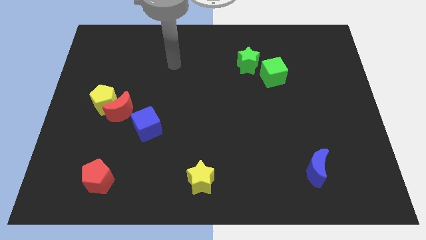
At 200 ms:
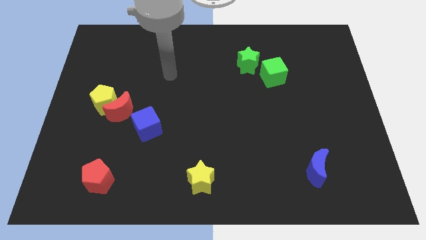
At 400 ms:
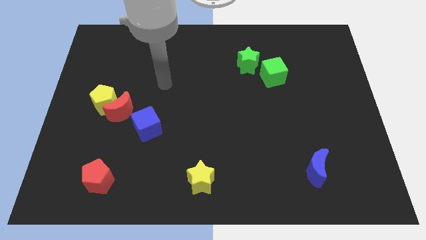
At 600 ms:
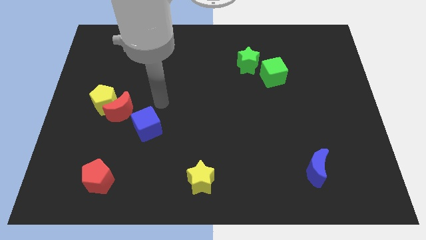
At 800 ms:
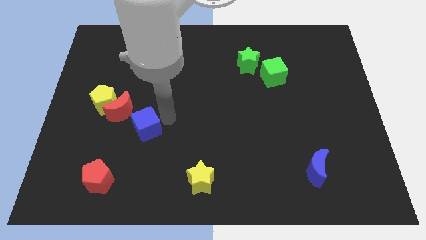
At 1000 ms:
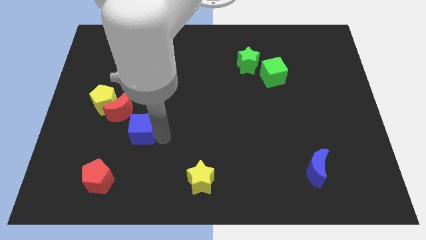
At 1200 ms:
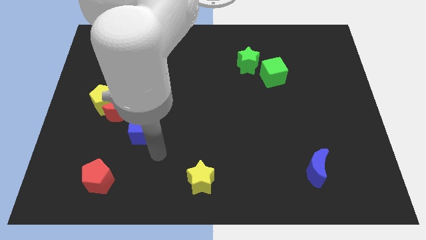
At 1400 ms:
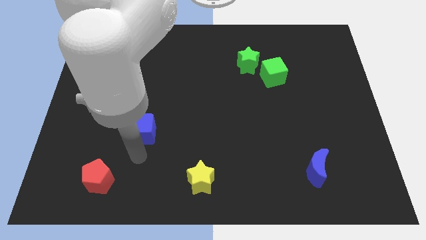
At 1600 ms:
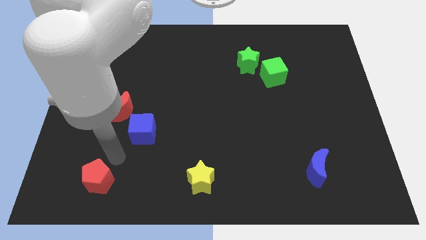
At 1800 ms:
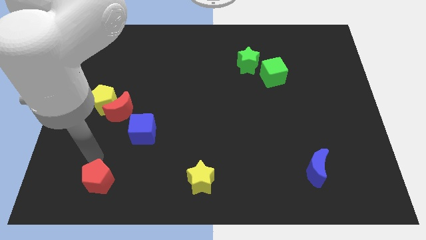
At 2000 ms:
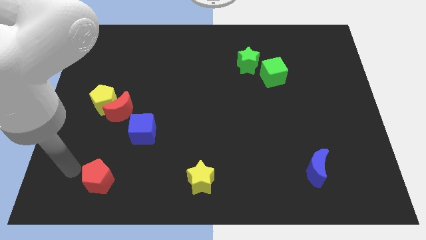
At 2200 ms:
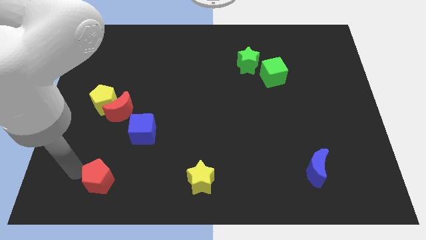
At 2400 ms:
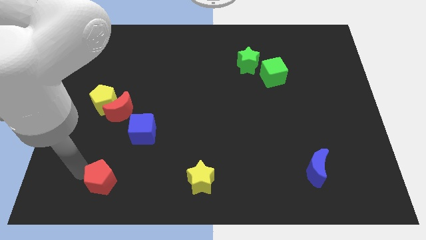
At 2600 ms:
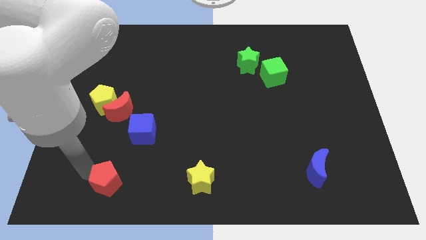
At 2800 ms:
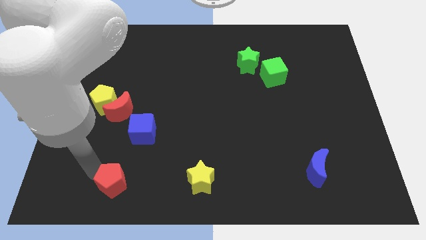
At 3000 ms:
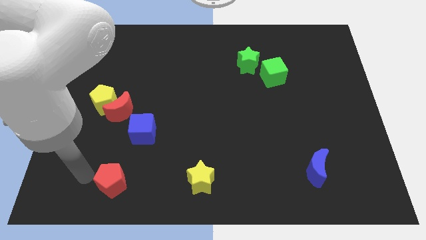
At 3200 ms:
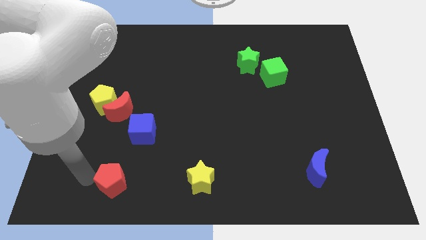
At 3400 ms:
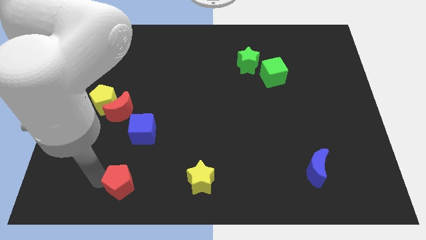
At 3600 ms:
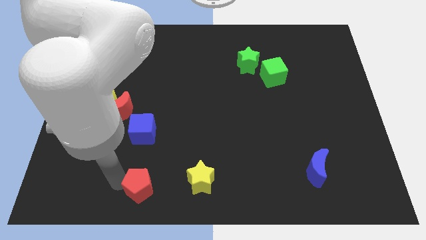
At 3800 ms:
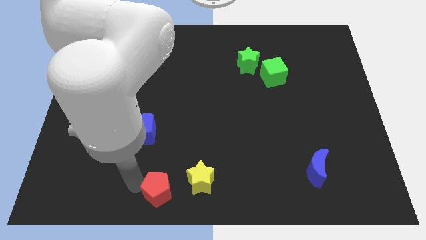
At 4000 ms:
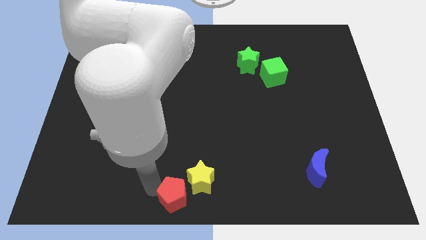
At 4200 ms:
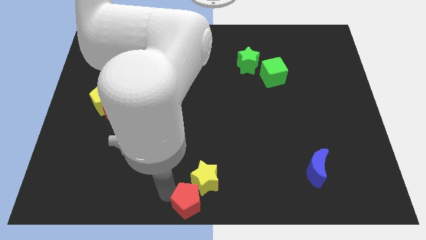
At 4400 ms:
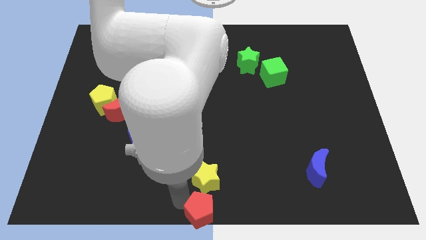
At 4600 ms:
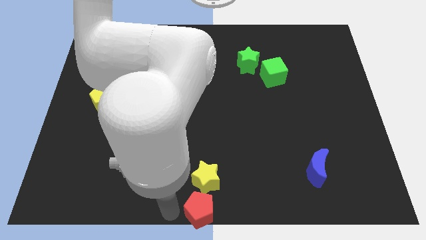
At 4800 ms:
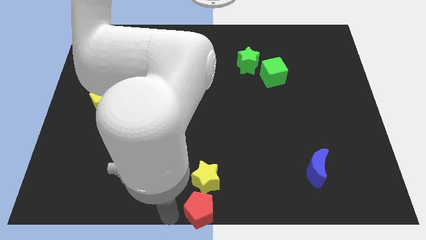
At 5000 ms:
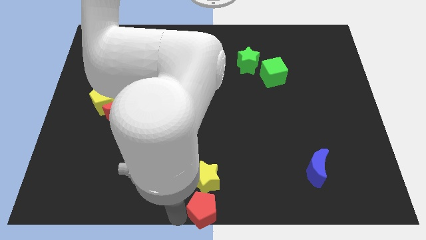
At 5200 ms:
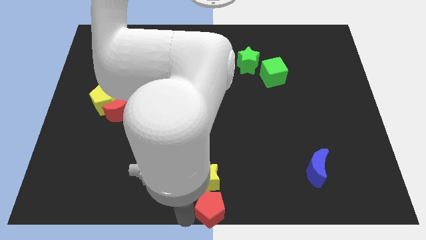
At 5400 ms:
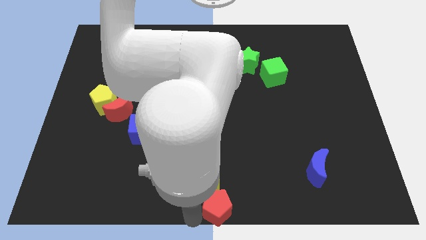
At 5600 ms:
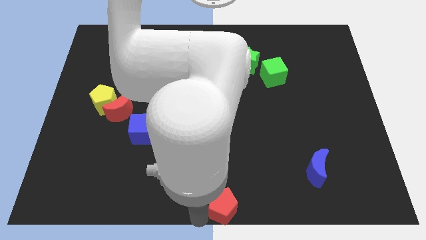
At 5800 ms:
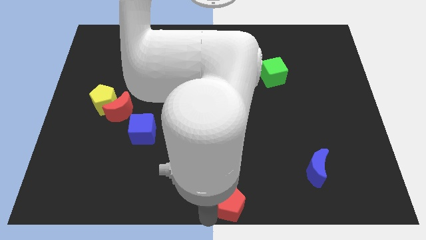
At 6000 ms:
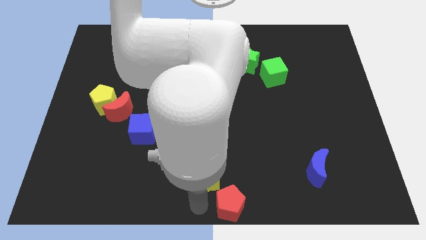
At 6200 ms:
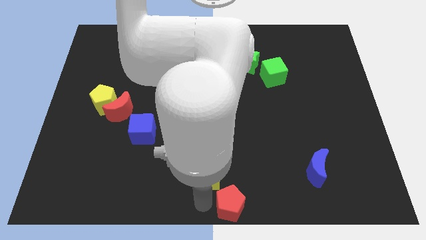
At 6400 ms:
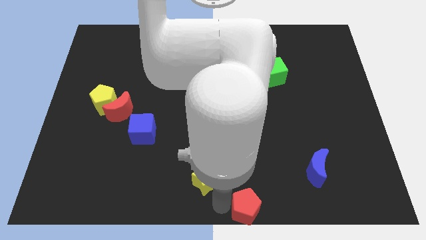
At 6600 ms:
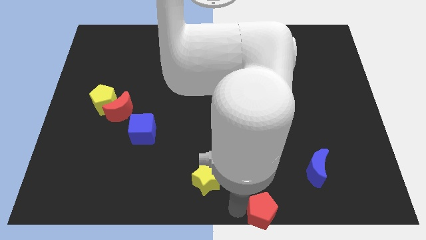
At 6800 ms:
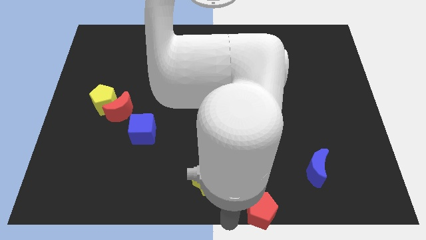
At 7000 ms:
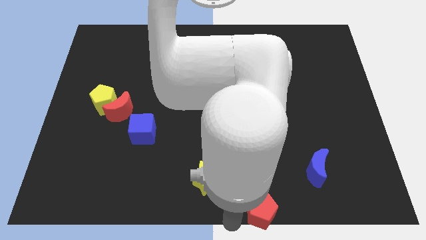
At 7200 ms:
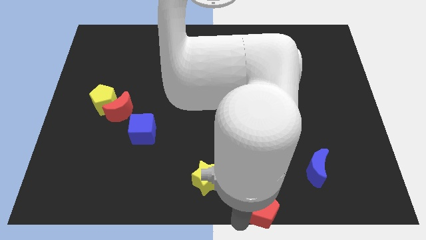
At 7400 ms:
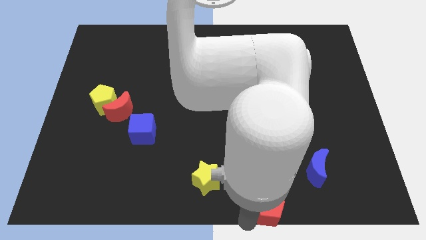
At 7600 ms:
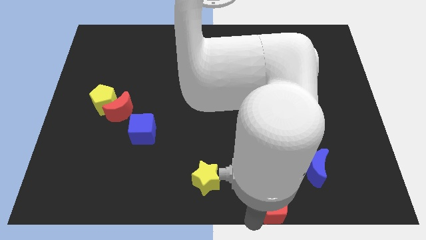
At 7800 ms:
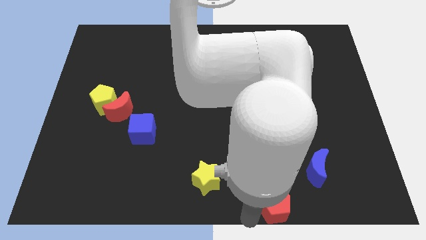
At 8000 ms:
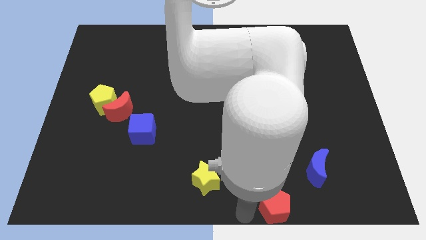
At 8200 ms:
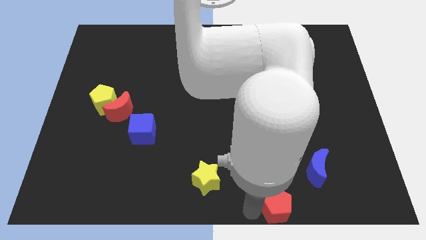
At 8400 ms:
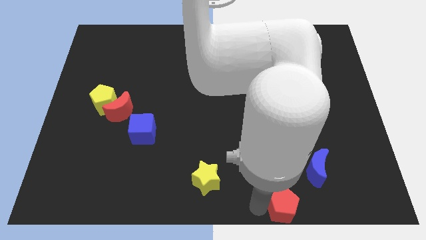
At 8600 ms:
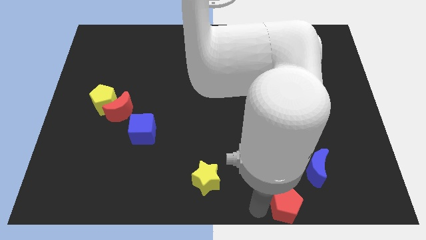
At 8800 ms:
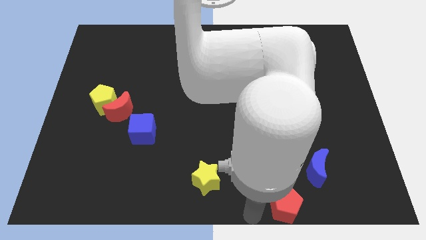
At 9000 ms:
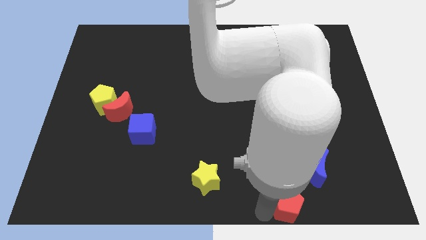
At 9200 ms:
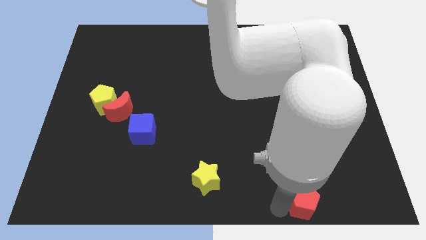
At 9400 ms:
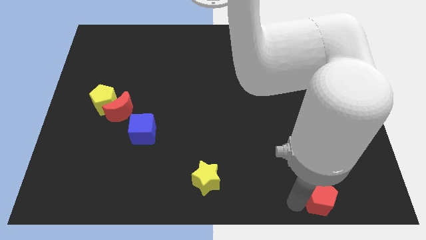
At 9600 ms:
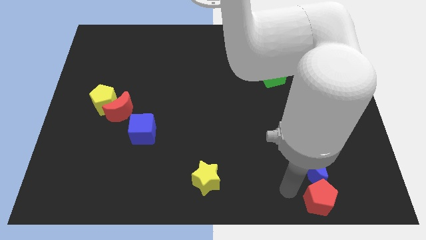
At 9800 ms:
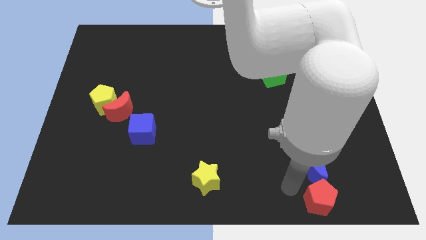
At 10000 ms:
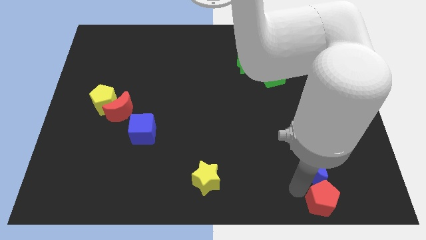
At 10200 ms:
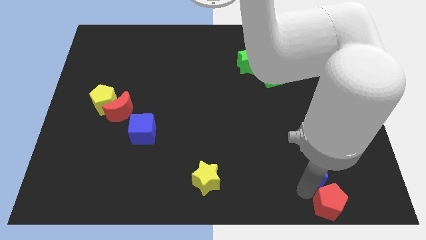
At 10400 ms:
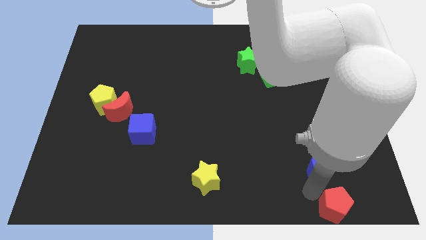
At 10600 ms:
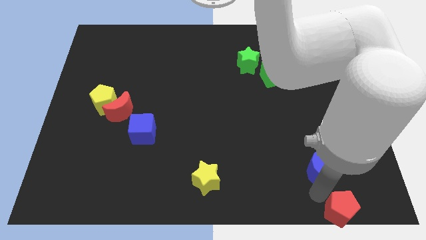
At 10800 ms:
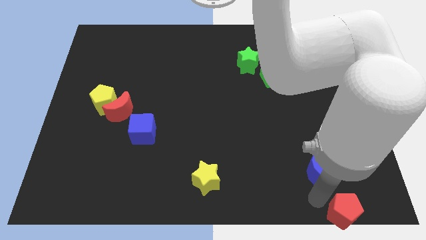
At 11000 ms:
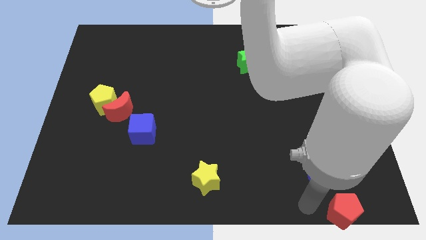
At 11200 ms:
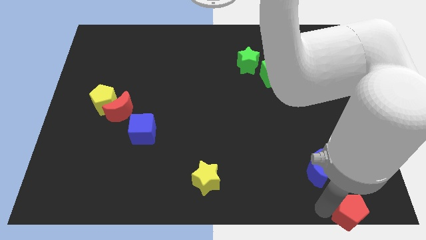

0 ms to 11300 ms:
slide the red pentagon to the bottom right

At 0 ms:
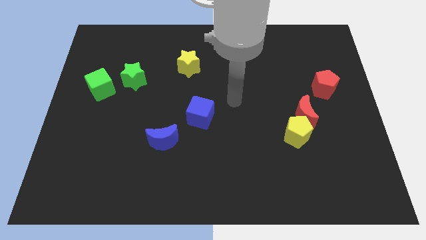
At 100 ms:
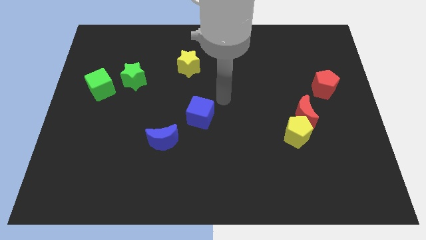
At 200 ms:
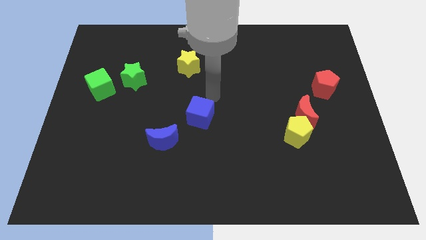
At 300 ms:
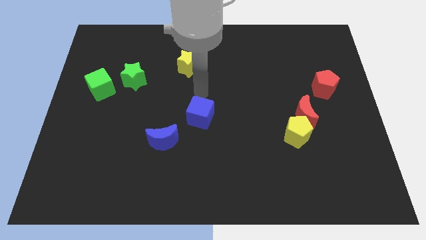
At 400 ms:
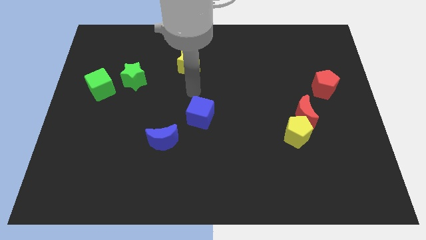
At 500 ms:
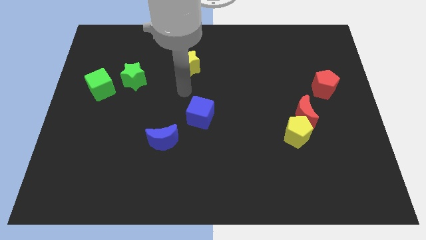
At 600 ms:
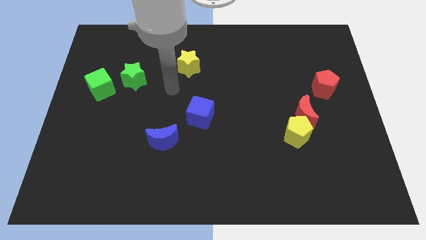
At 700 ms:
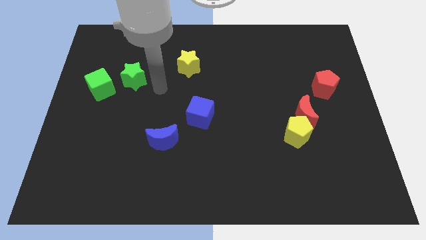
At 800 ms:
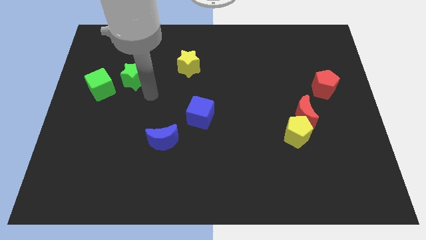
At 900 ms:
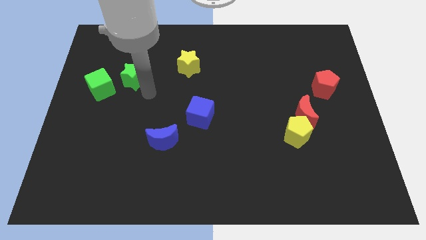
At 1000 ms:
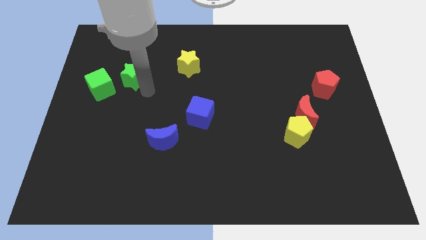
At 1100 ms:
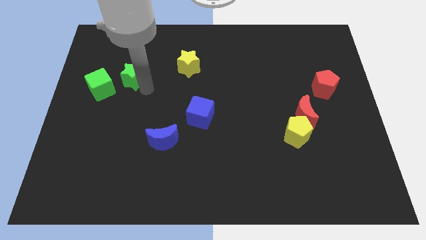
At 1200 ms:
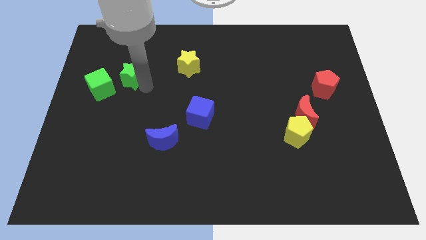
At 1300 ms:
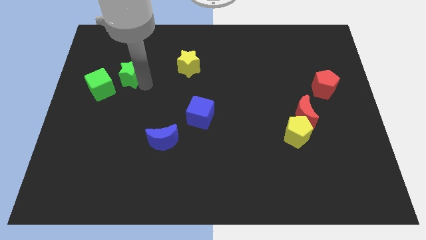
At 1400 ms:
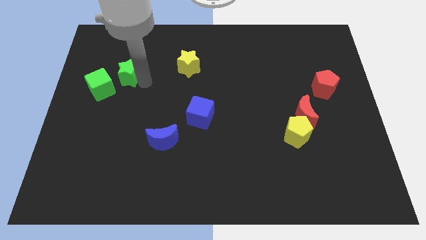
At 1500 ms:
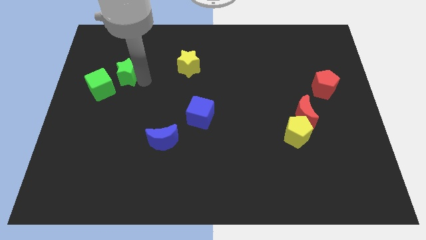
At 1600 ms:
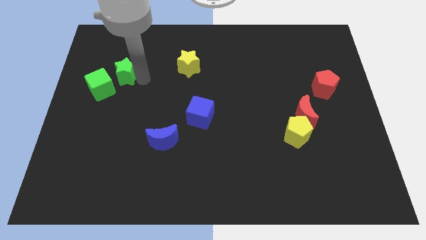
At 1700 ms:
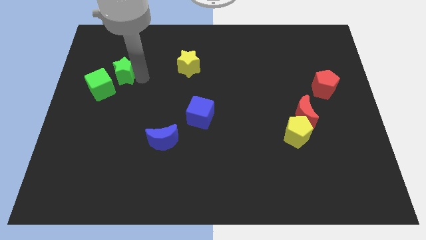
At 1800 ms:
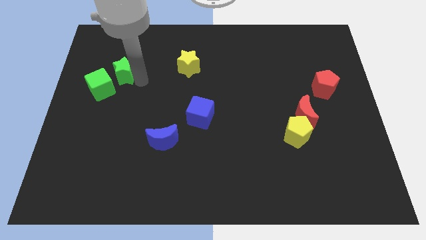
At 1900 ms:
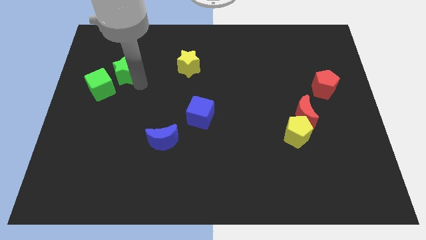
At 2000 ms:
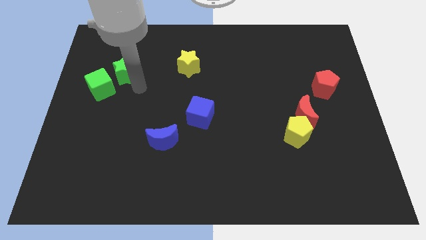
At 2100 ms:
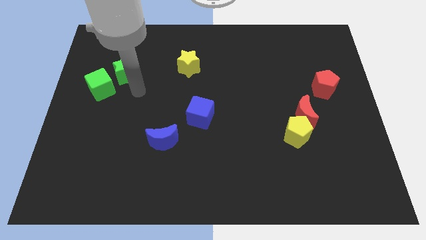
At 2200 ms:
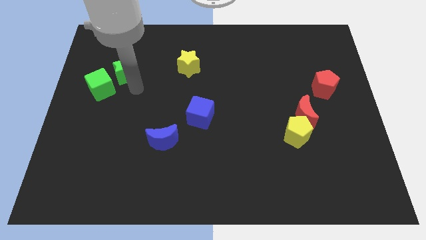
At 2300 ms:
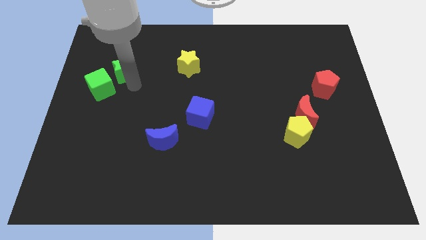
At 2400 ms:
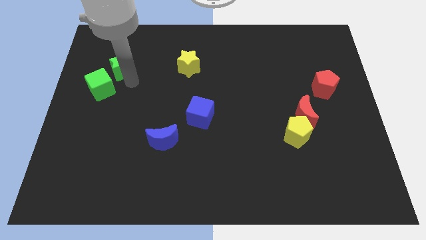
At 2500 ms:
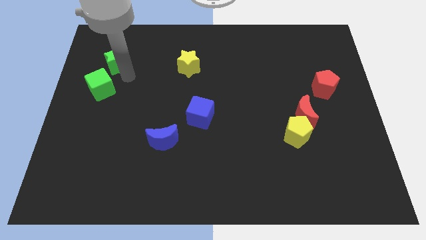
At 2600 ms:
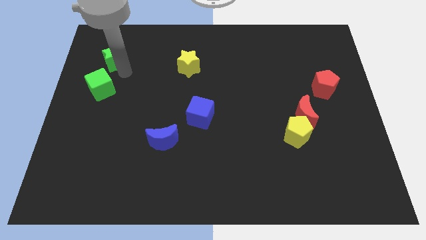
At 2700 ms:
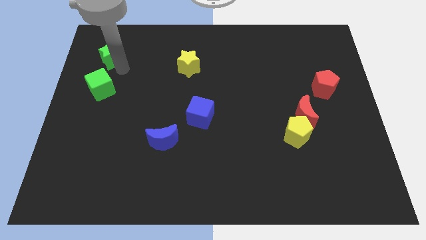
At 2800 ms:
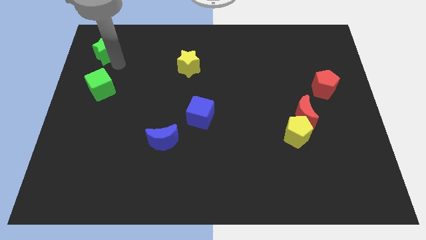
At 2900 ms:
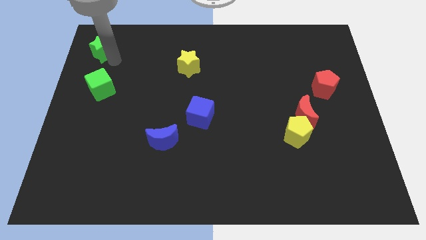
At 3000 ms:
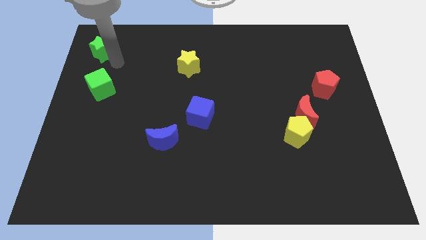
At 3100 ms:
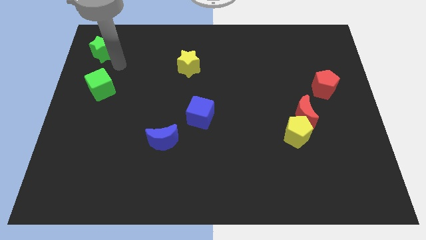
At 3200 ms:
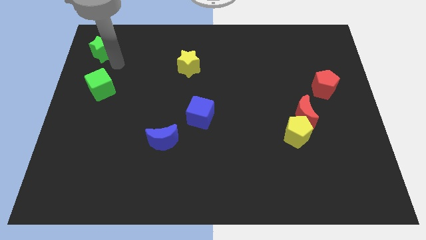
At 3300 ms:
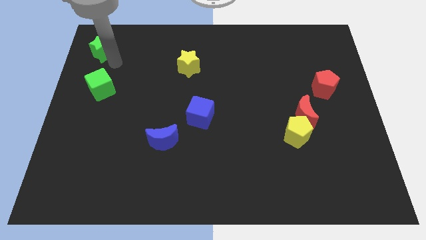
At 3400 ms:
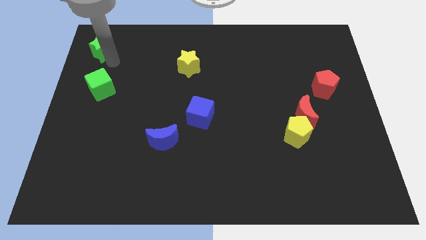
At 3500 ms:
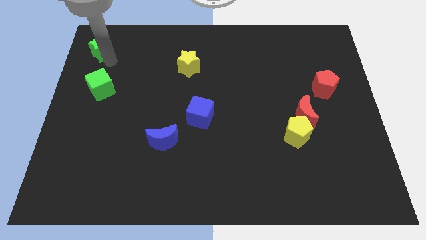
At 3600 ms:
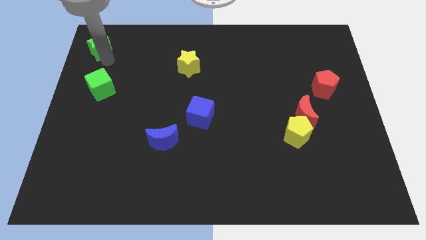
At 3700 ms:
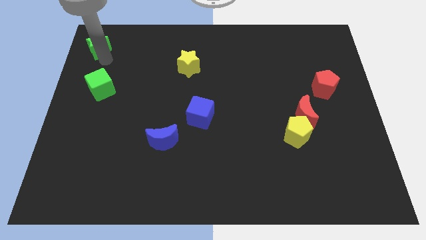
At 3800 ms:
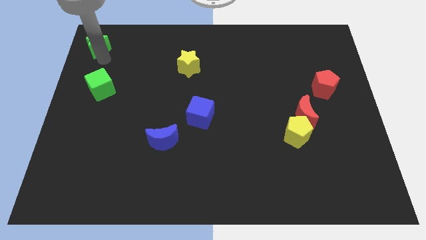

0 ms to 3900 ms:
put the green star to the top left of the board
